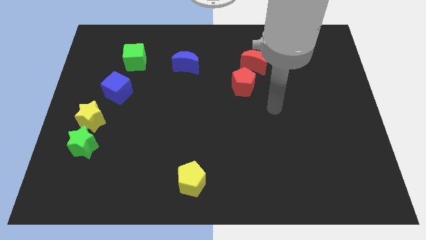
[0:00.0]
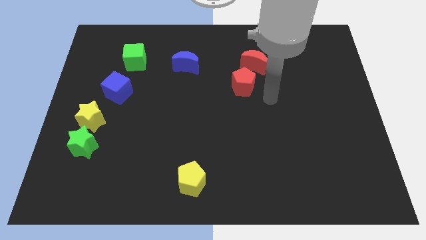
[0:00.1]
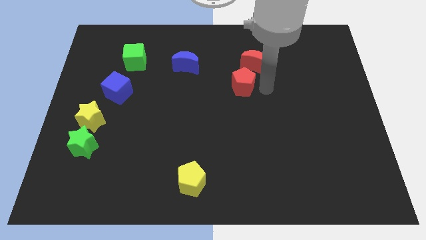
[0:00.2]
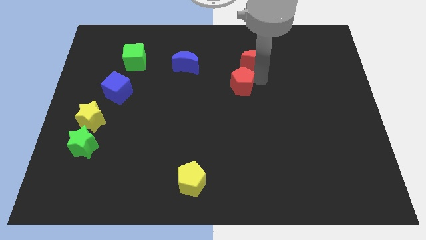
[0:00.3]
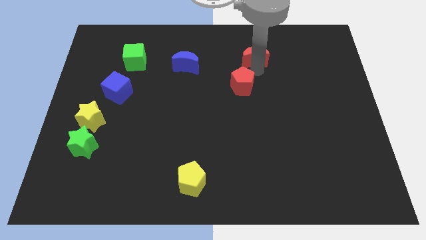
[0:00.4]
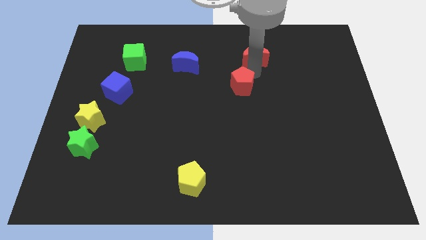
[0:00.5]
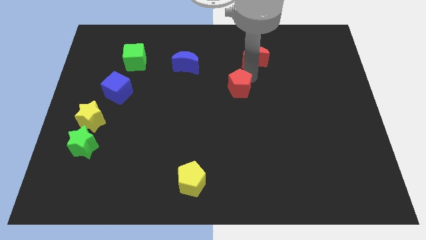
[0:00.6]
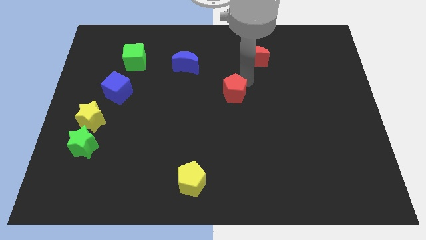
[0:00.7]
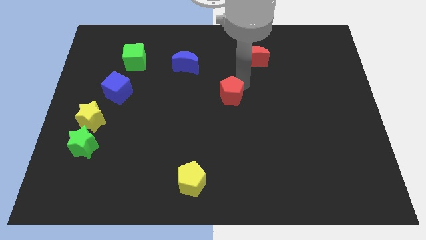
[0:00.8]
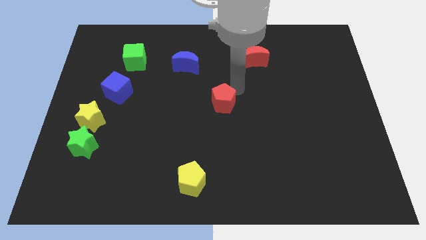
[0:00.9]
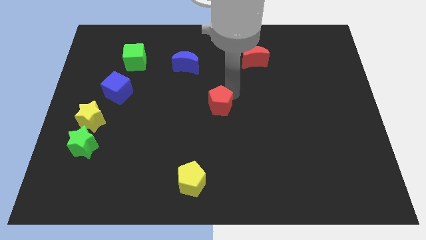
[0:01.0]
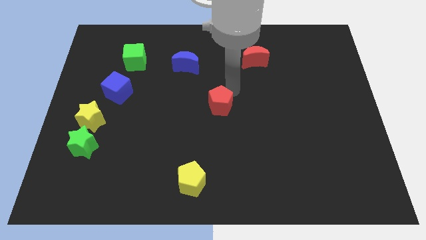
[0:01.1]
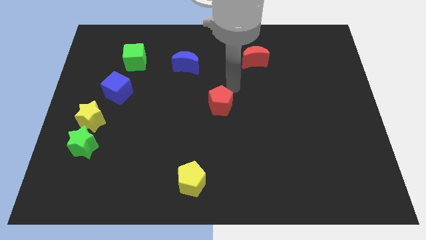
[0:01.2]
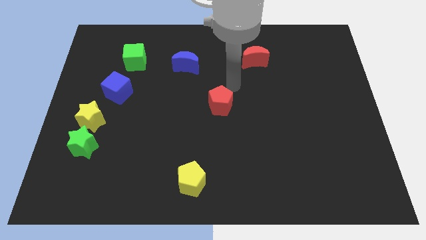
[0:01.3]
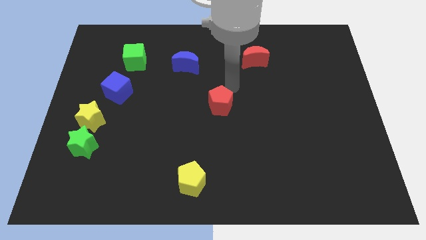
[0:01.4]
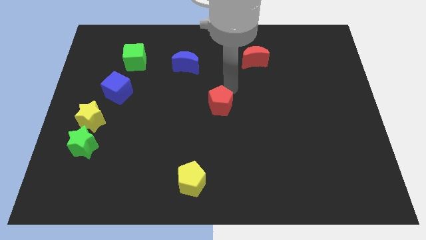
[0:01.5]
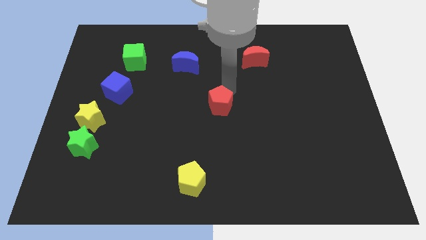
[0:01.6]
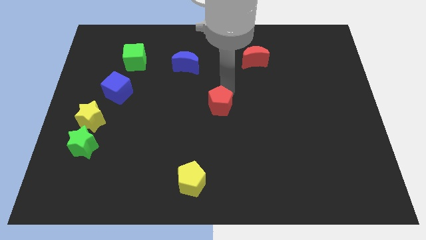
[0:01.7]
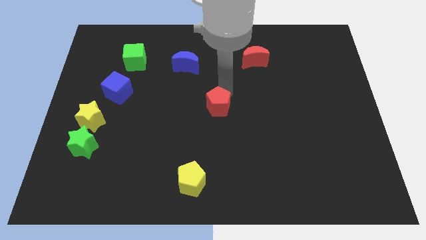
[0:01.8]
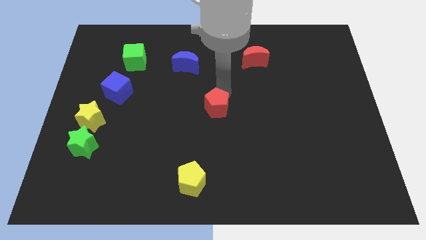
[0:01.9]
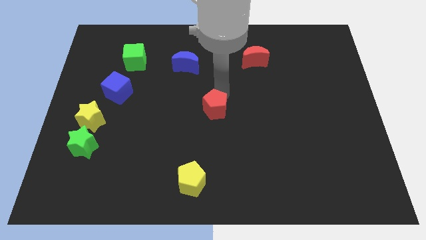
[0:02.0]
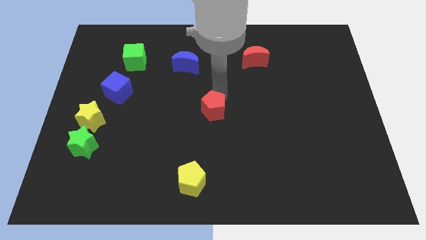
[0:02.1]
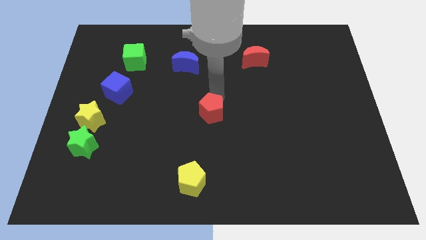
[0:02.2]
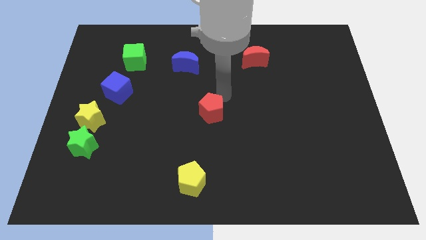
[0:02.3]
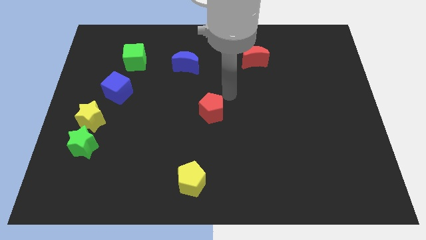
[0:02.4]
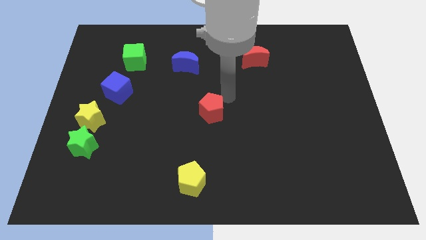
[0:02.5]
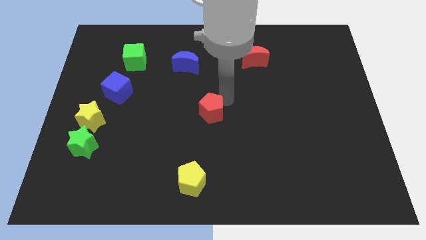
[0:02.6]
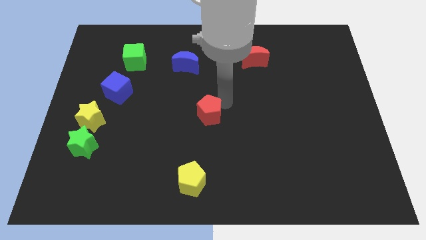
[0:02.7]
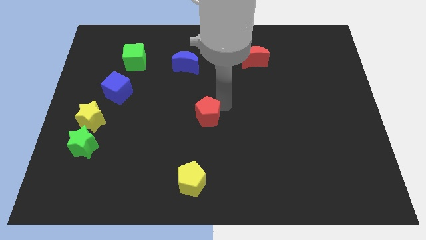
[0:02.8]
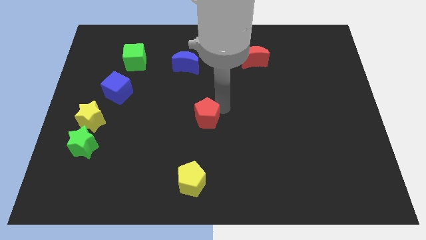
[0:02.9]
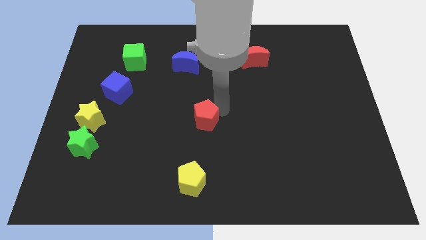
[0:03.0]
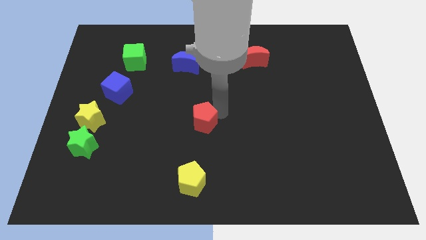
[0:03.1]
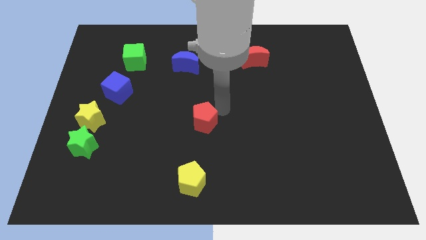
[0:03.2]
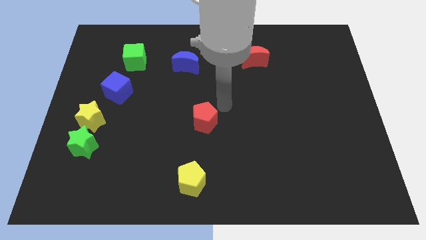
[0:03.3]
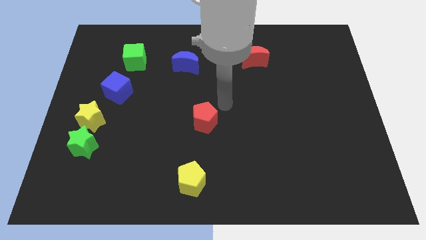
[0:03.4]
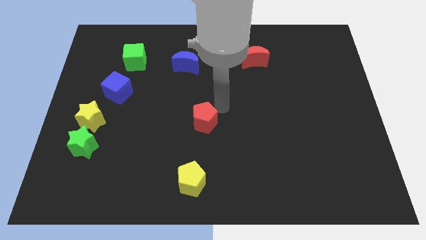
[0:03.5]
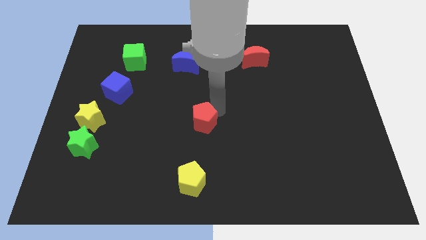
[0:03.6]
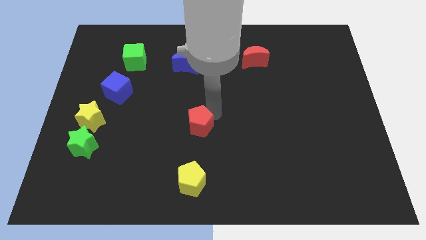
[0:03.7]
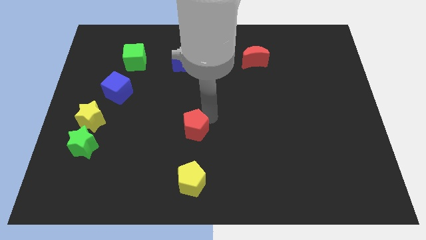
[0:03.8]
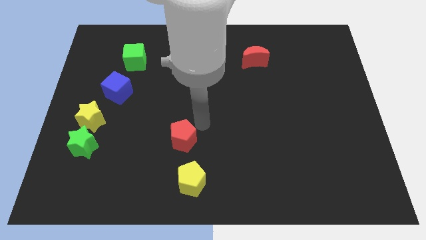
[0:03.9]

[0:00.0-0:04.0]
push the red pentagon diagonally downwards and to the left

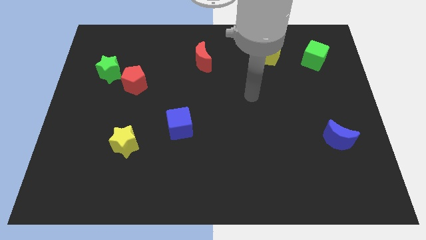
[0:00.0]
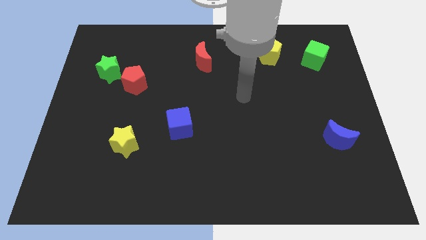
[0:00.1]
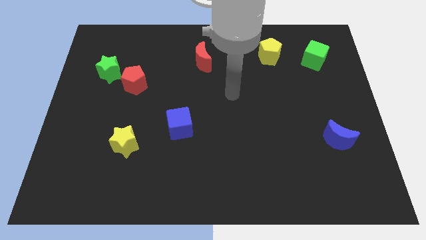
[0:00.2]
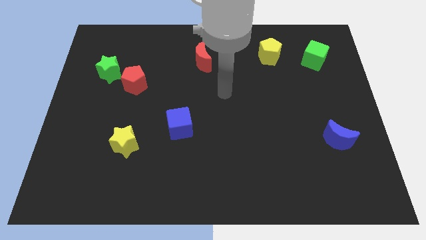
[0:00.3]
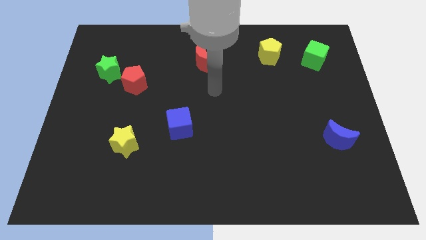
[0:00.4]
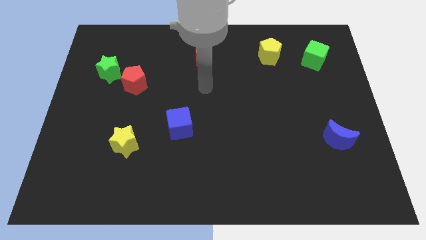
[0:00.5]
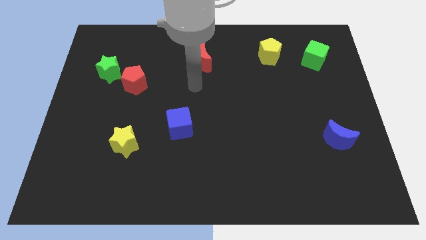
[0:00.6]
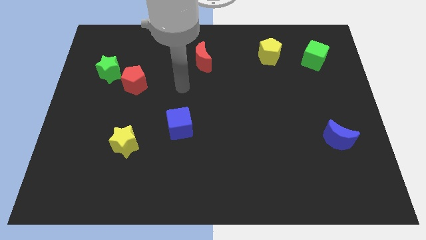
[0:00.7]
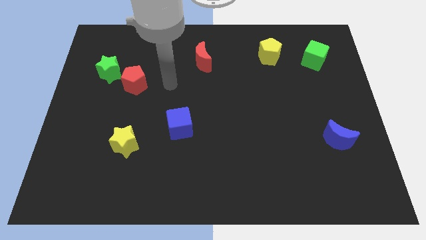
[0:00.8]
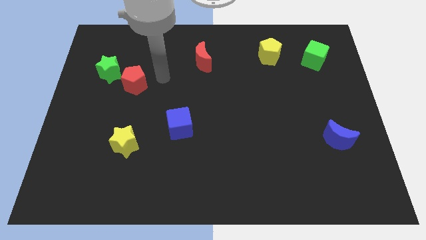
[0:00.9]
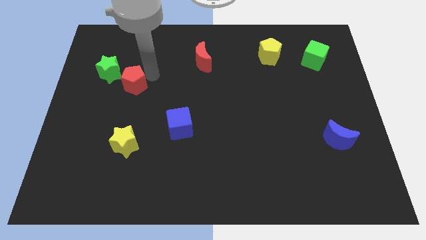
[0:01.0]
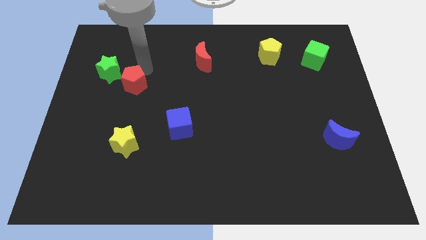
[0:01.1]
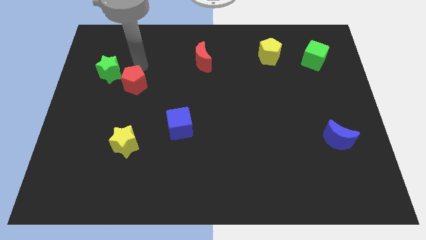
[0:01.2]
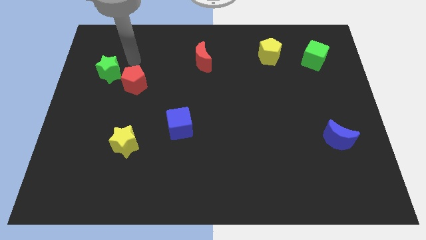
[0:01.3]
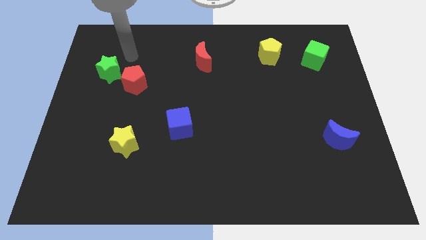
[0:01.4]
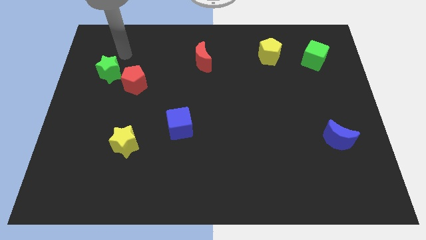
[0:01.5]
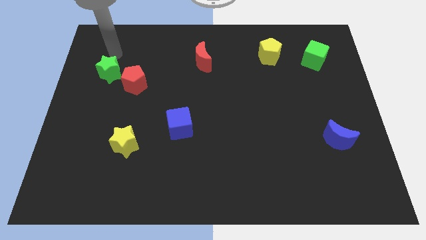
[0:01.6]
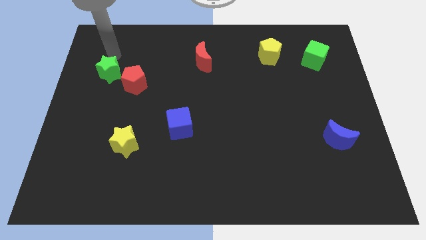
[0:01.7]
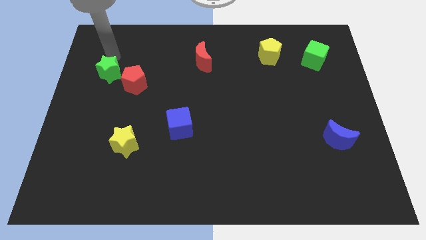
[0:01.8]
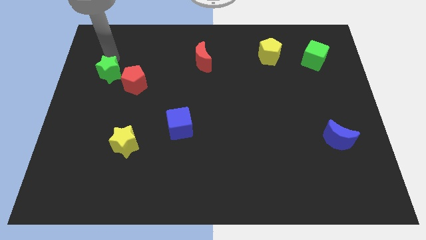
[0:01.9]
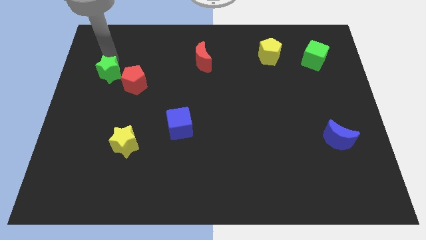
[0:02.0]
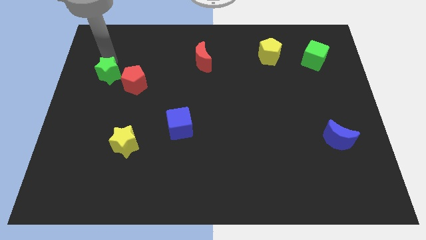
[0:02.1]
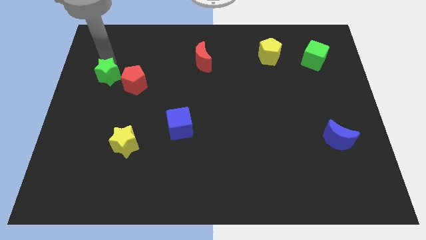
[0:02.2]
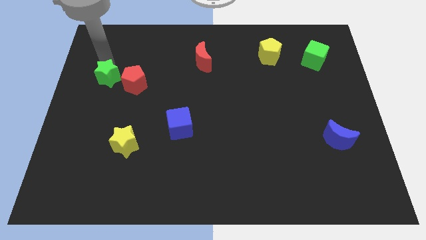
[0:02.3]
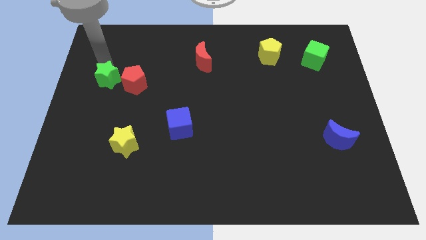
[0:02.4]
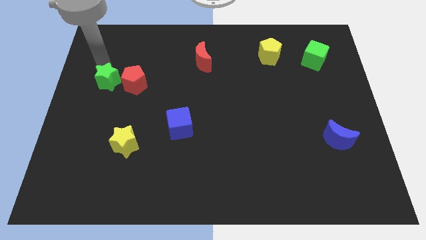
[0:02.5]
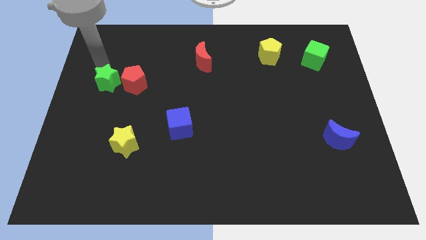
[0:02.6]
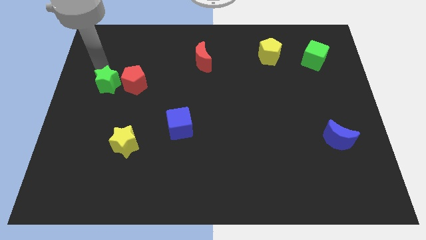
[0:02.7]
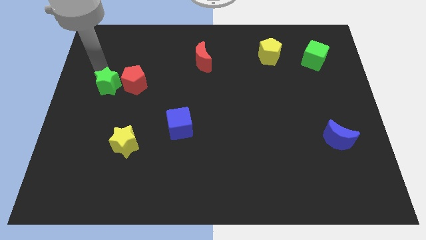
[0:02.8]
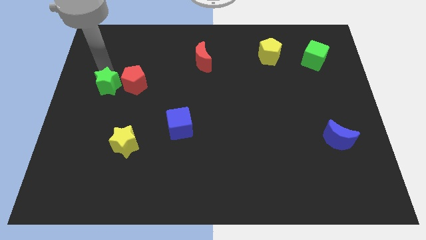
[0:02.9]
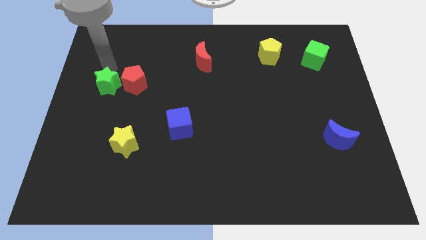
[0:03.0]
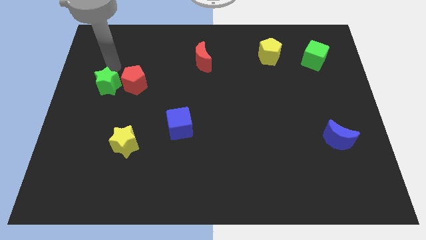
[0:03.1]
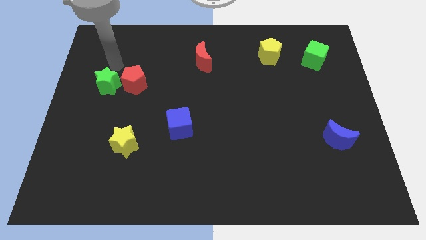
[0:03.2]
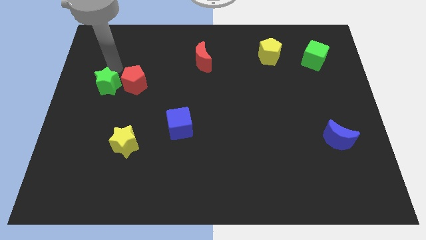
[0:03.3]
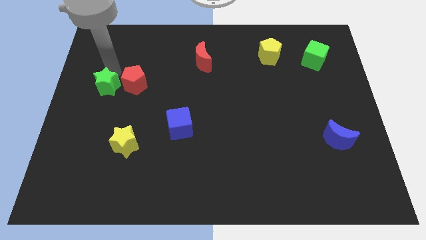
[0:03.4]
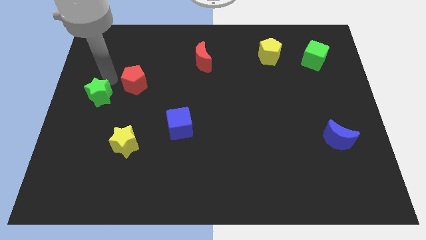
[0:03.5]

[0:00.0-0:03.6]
push the green star downwards somewhat

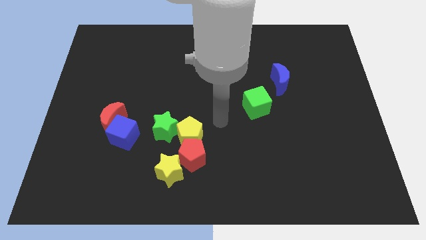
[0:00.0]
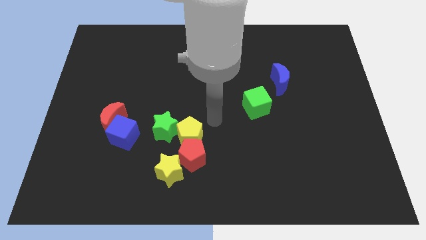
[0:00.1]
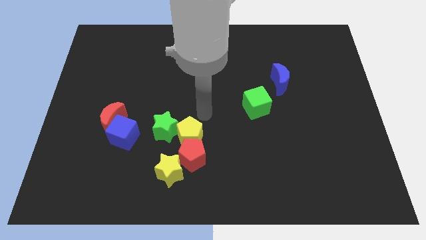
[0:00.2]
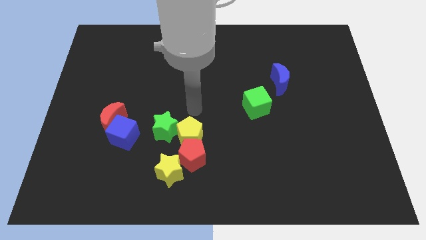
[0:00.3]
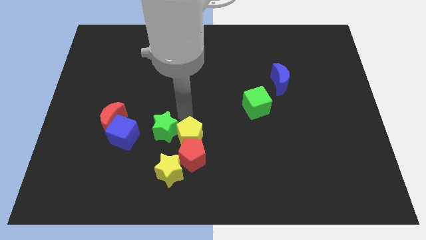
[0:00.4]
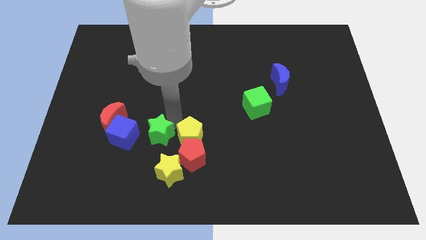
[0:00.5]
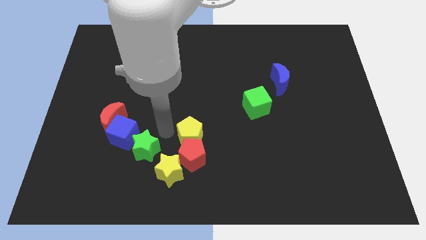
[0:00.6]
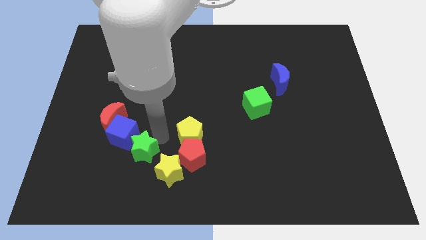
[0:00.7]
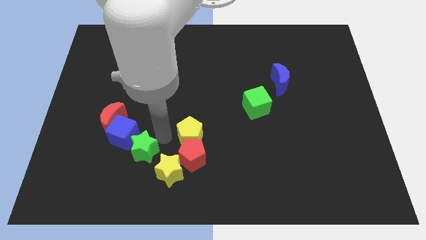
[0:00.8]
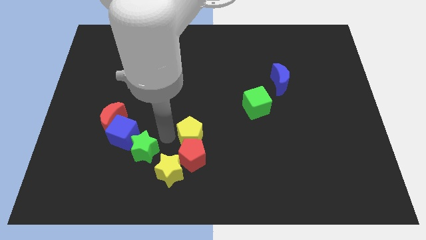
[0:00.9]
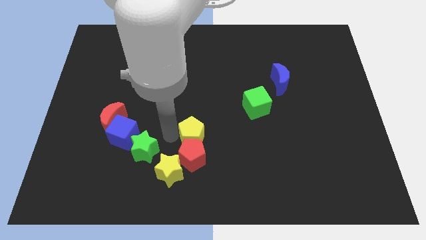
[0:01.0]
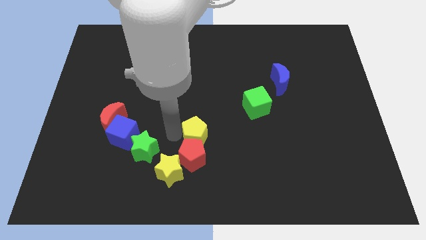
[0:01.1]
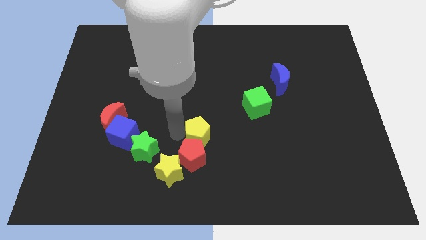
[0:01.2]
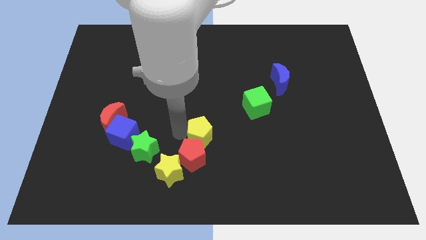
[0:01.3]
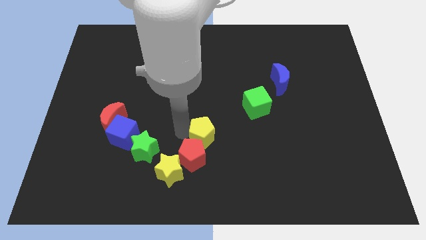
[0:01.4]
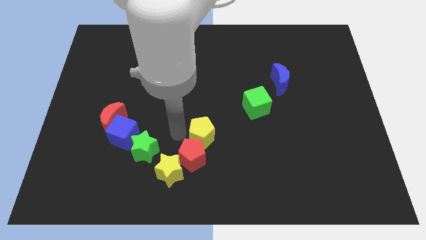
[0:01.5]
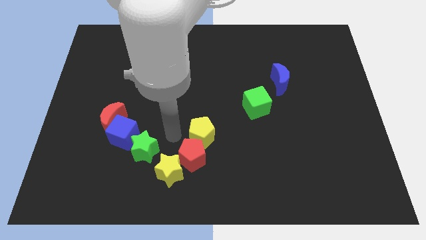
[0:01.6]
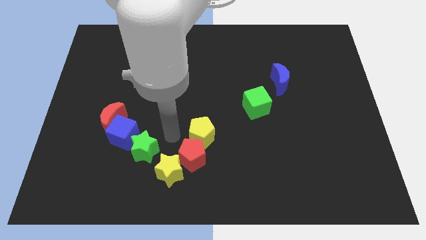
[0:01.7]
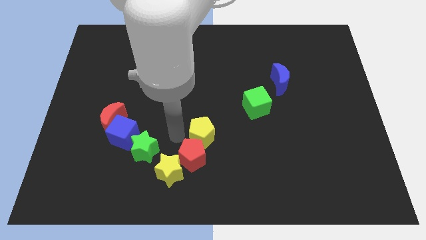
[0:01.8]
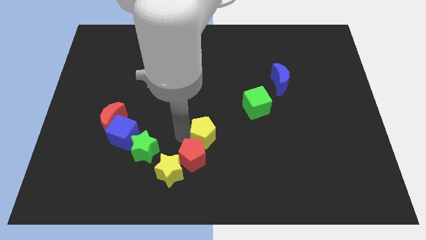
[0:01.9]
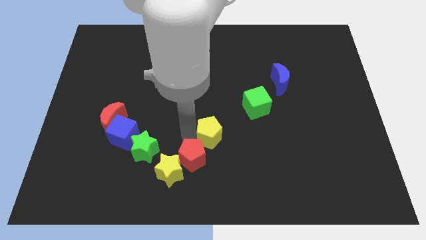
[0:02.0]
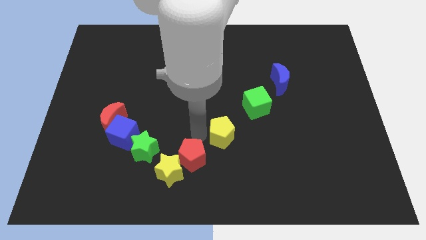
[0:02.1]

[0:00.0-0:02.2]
move the yellow pentagon to the right a little bit
